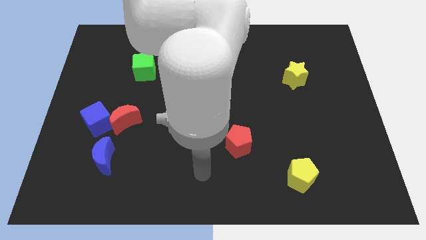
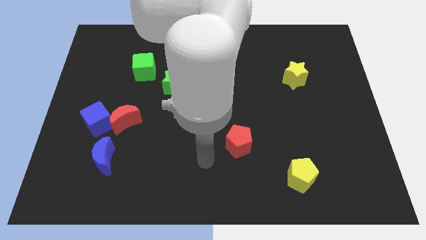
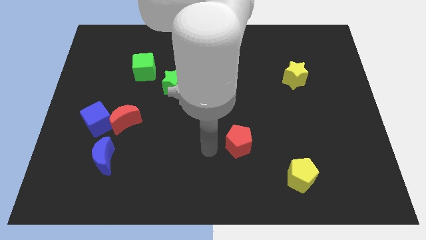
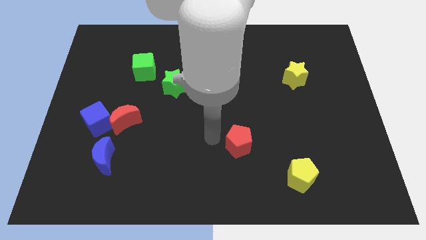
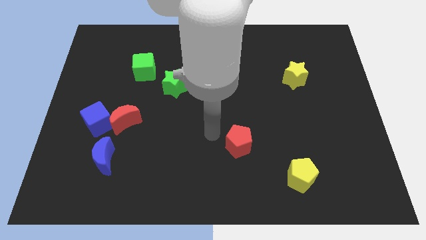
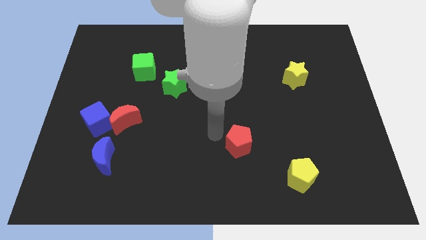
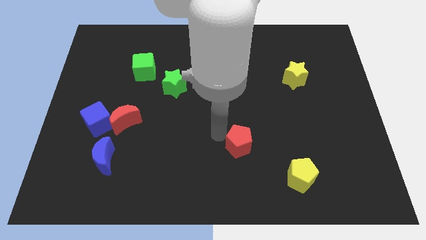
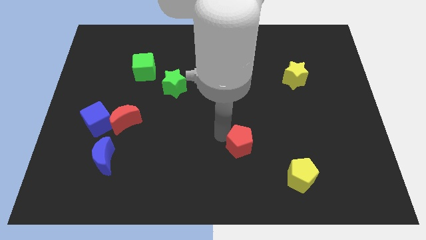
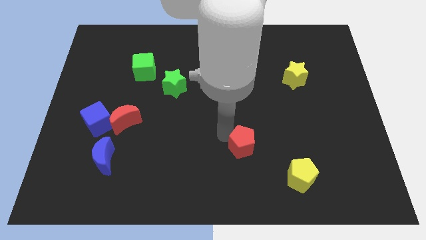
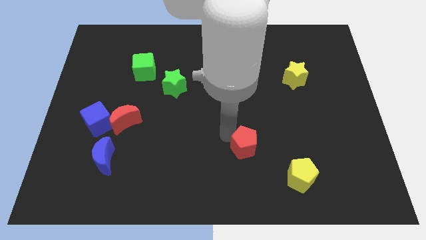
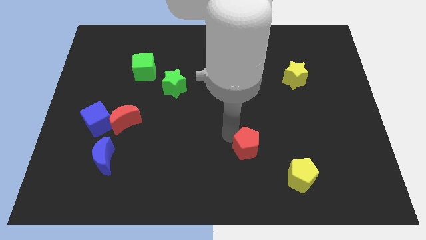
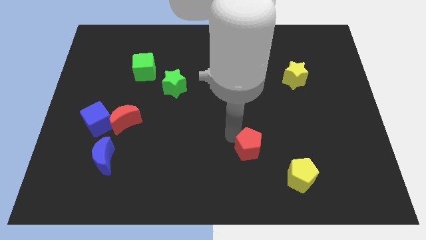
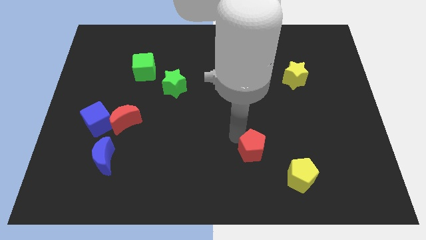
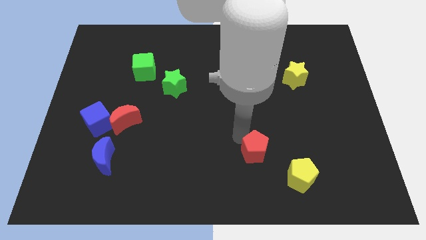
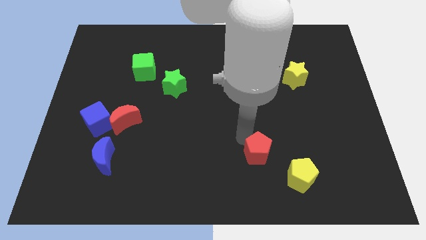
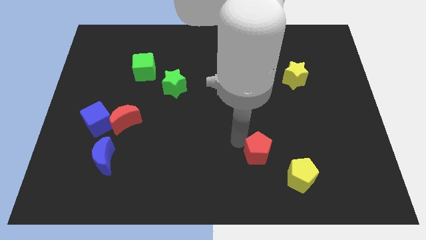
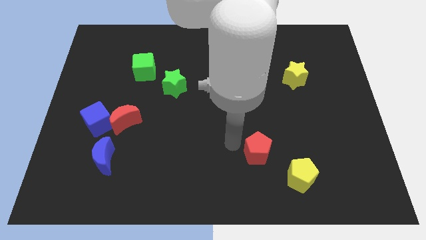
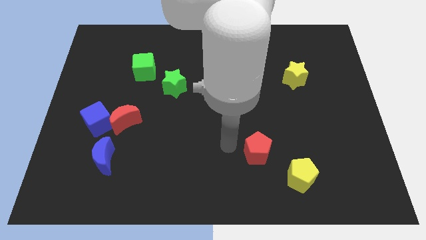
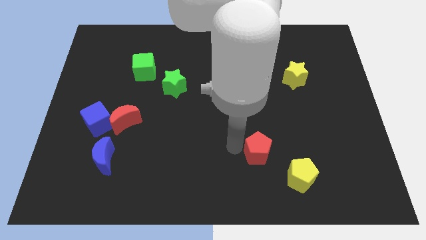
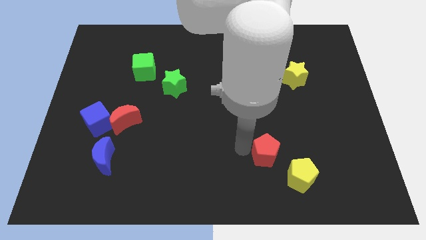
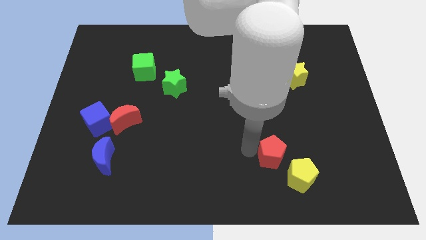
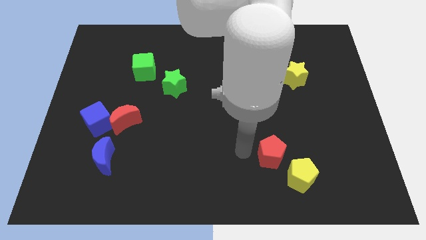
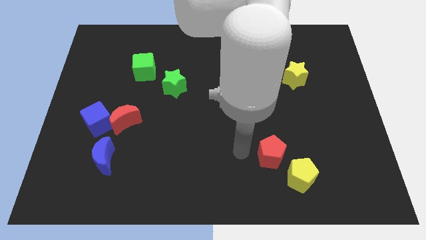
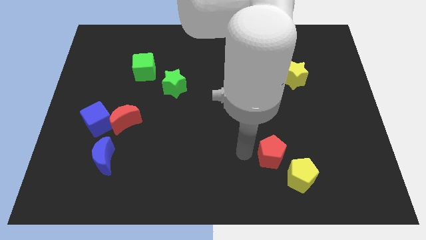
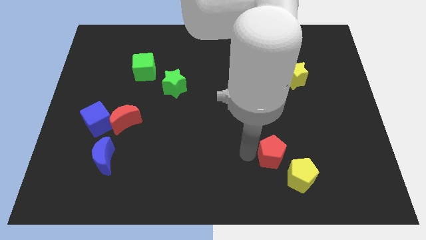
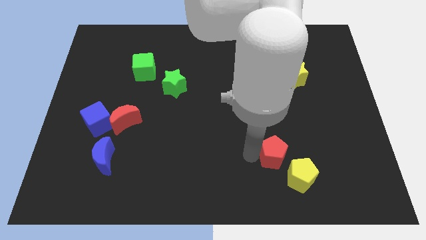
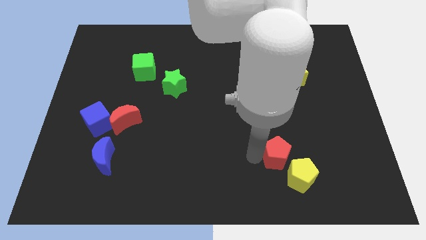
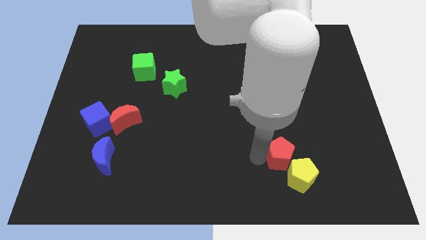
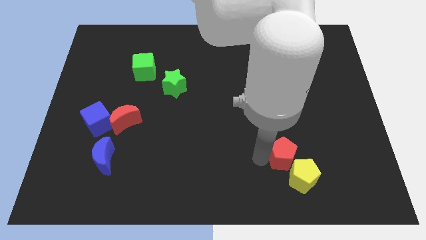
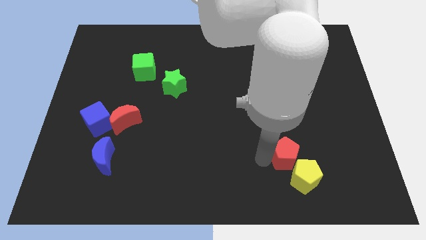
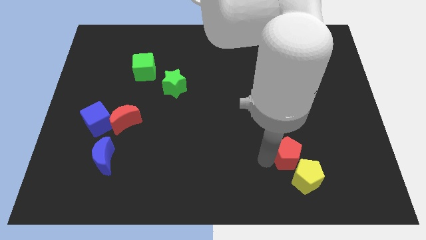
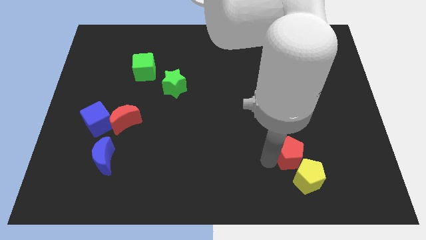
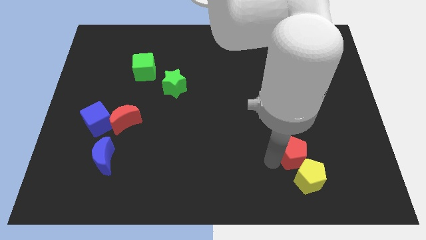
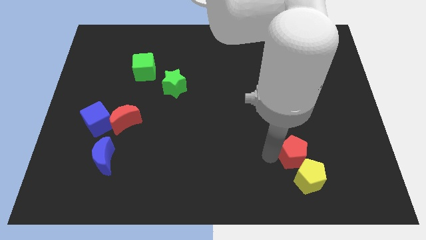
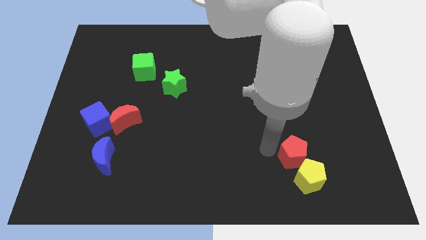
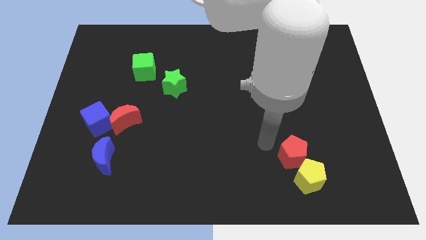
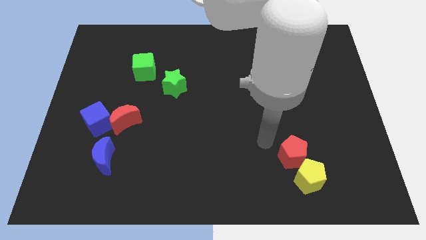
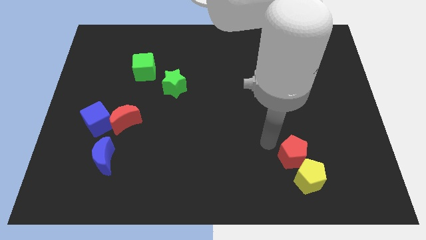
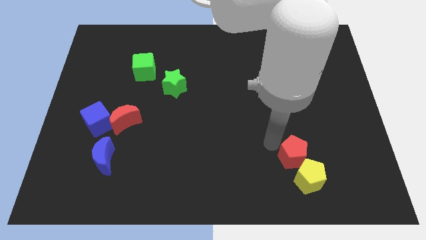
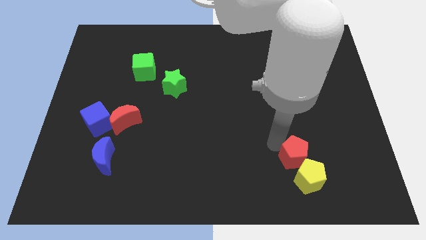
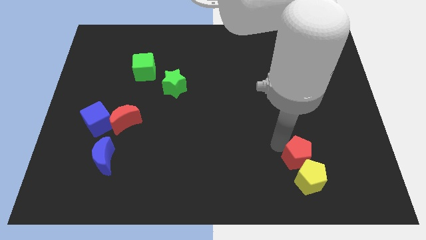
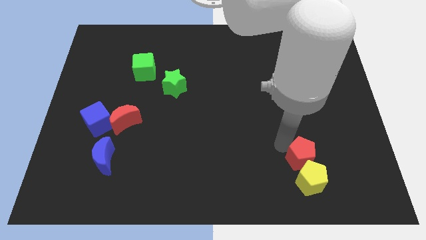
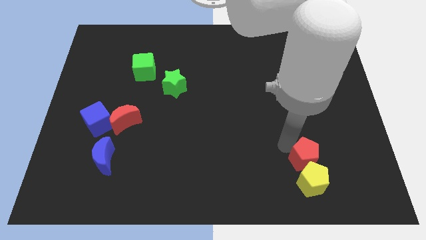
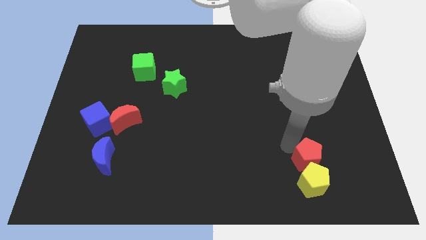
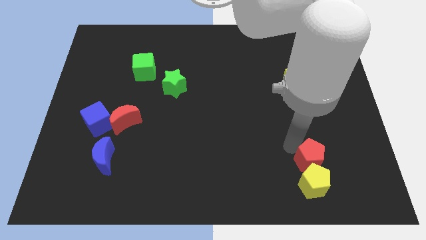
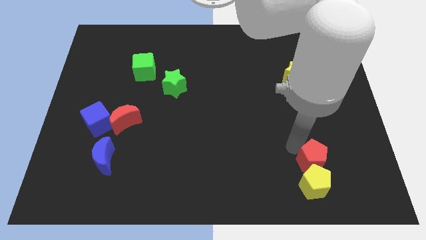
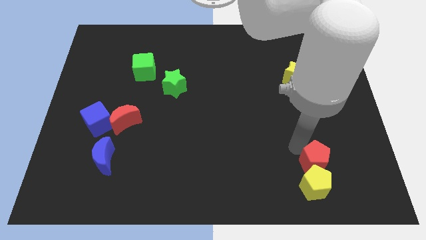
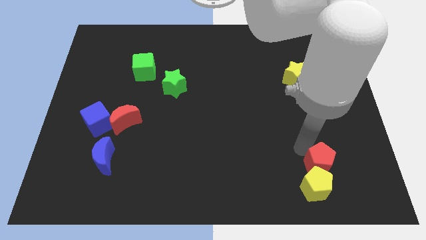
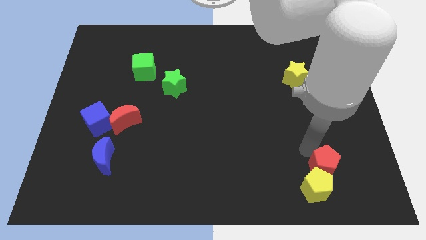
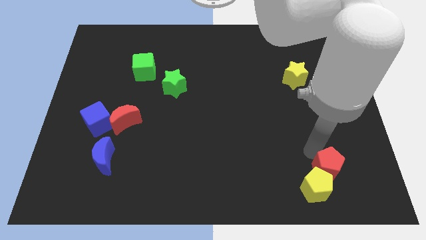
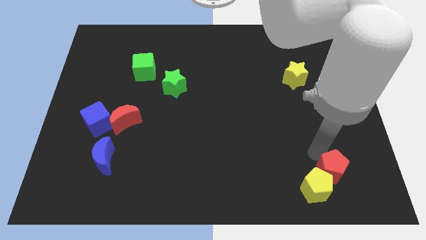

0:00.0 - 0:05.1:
slide the red pentagon just right of the yellow pentagon

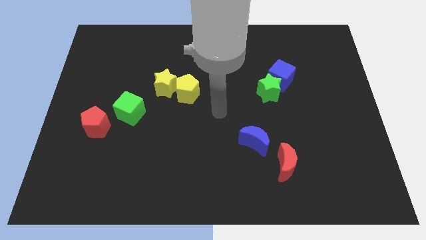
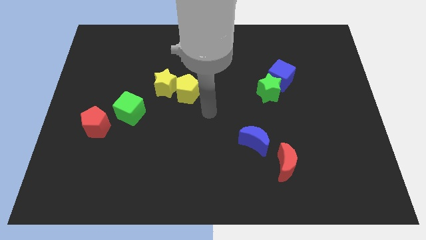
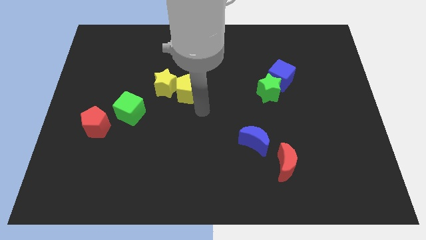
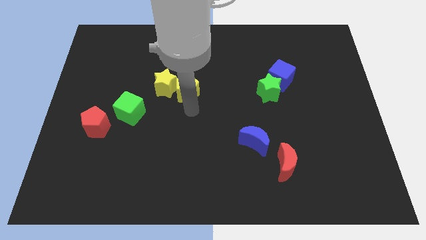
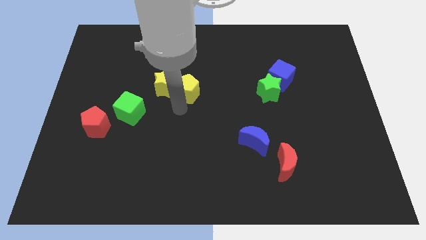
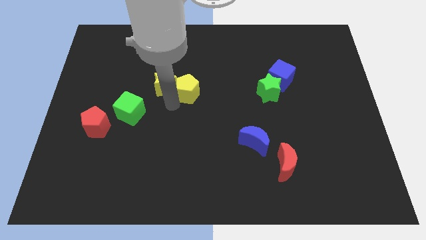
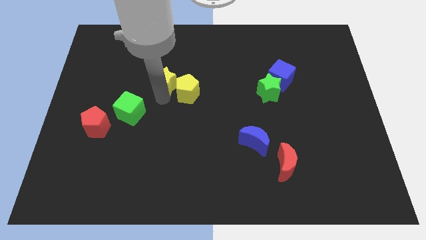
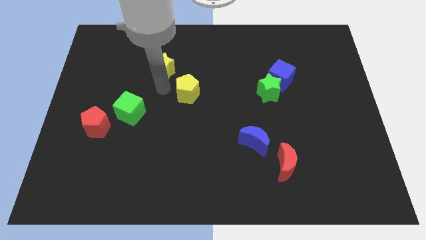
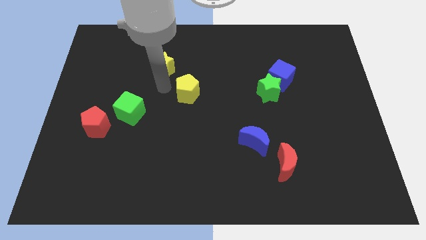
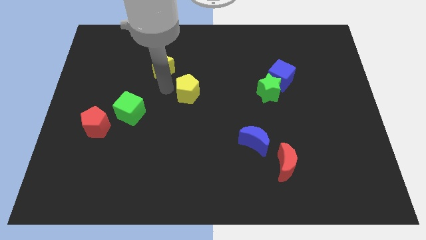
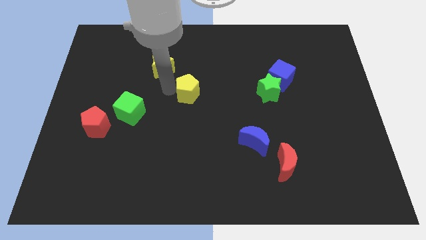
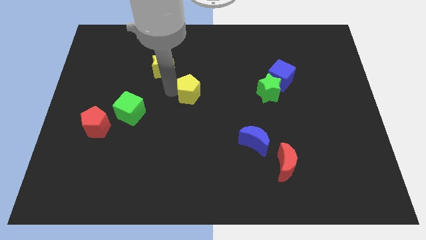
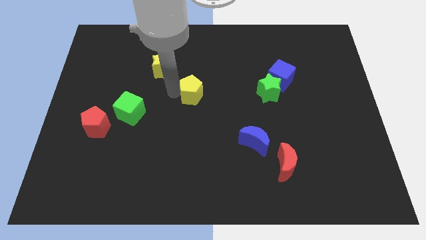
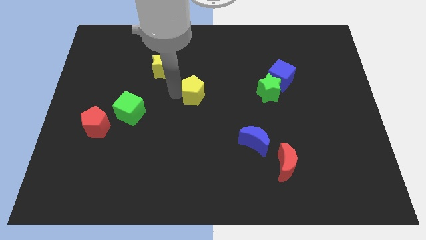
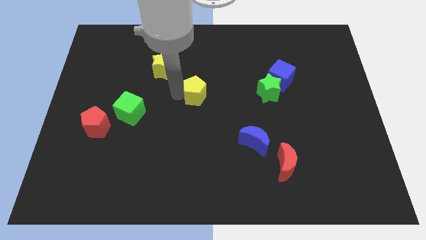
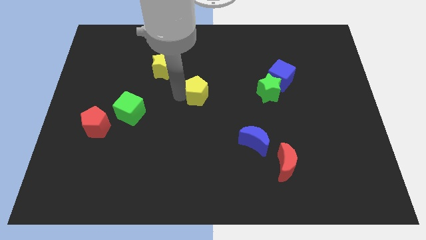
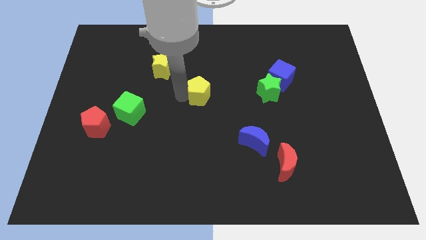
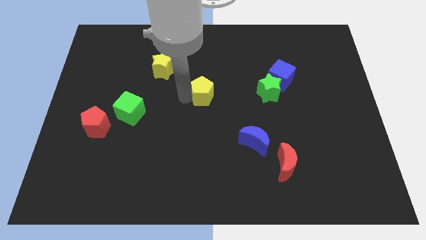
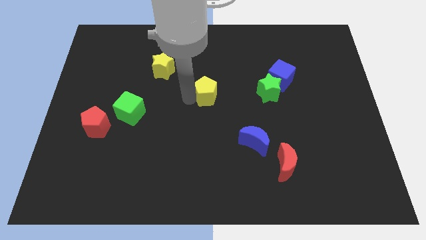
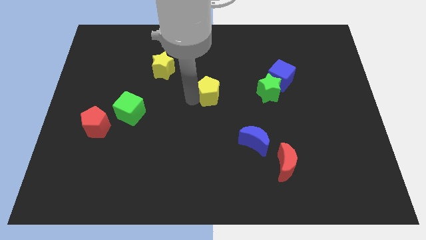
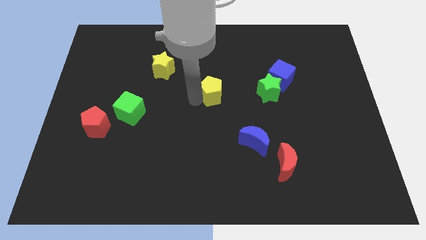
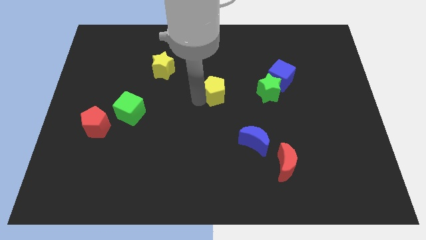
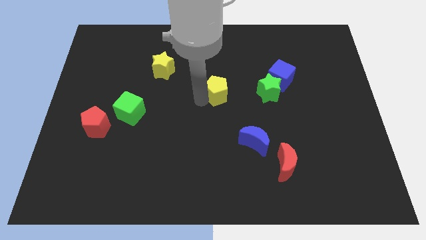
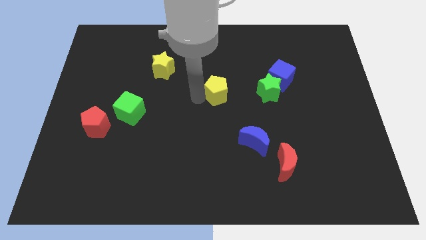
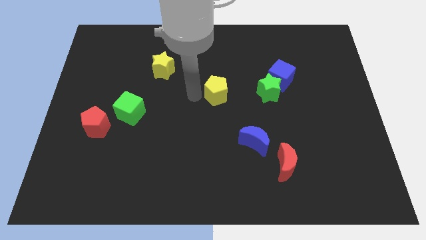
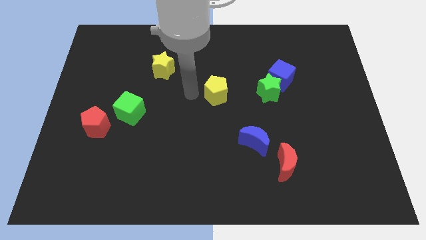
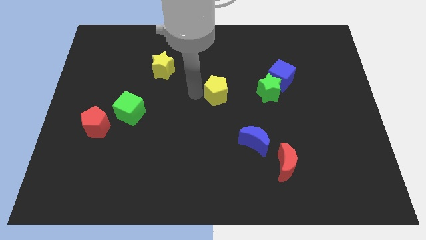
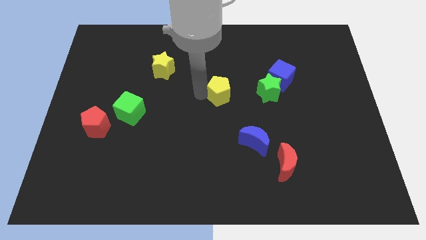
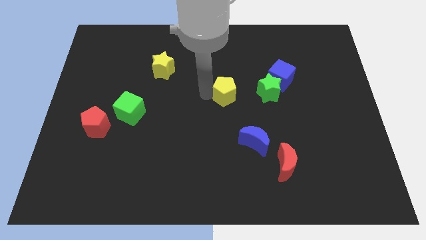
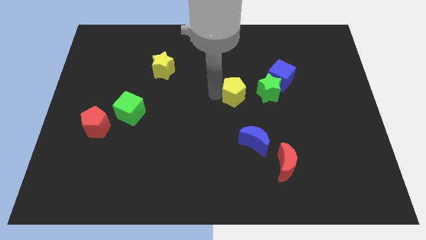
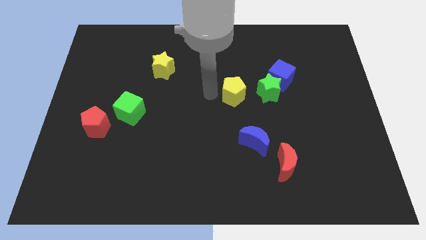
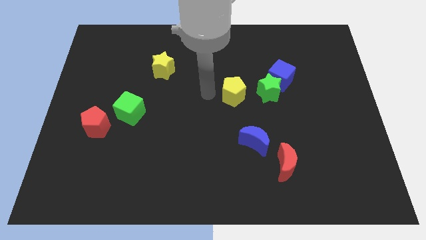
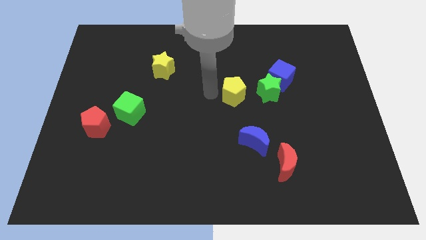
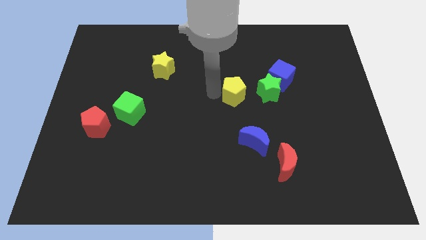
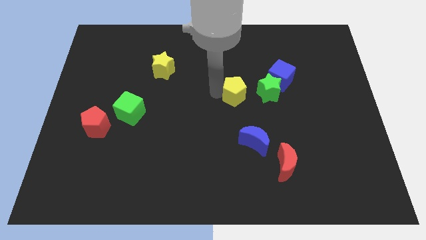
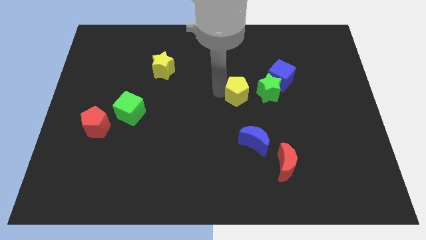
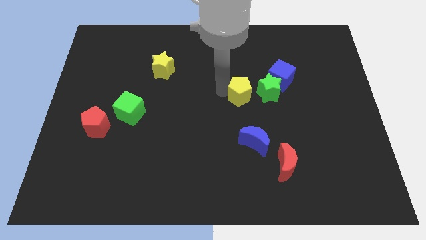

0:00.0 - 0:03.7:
slide the yellow pentagon to the bottom left side of the blue cube
